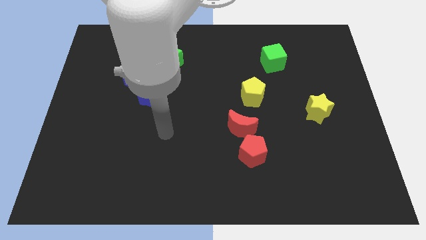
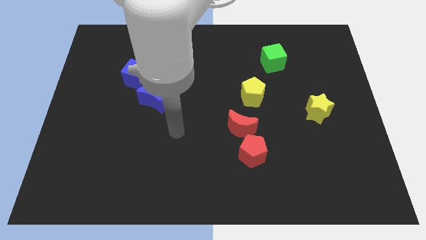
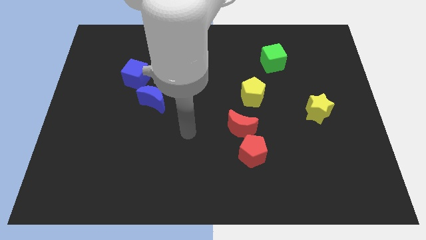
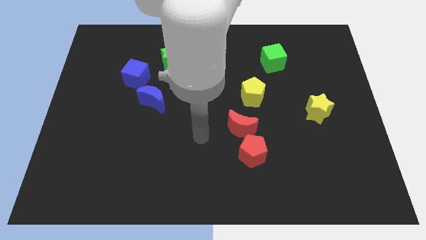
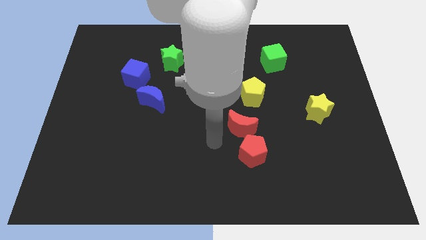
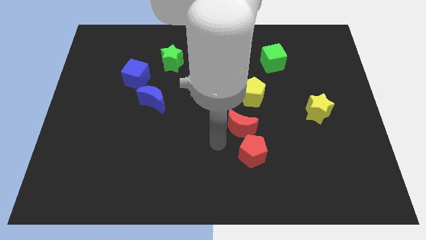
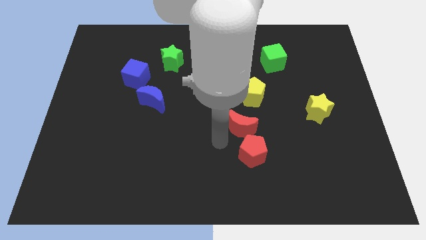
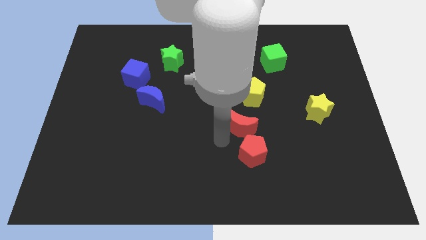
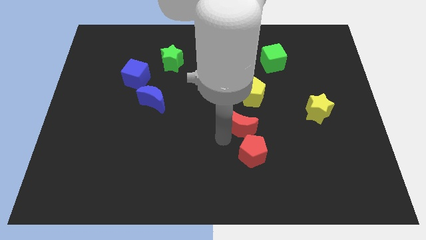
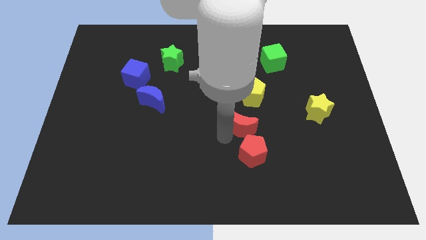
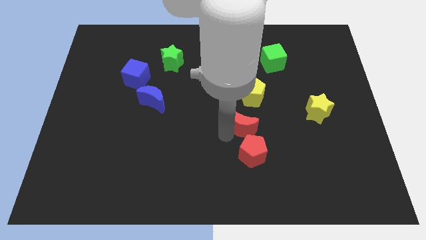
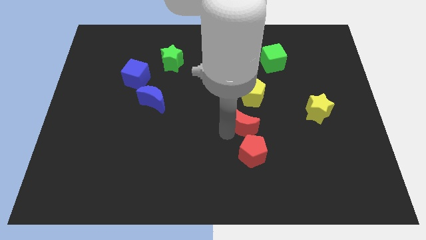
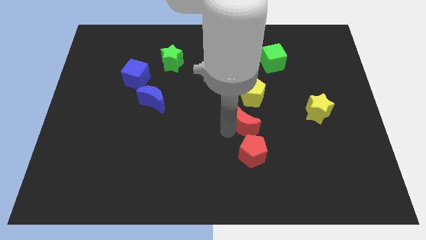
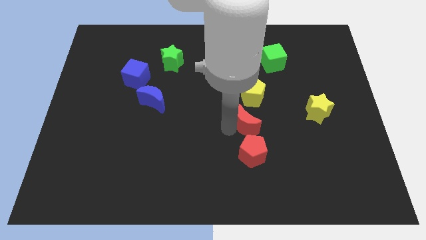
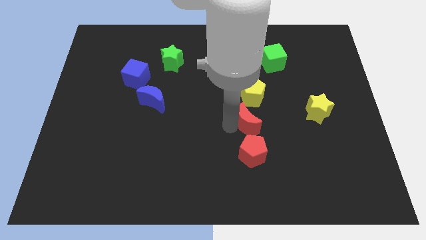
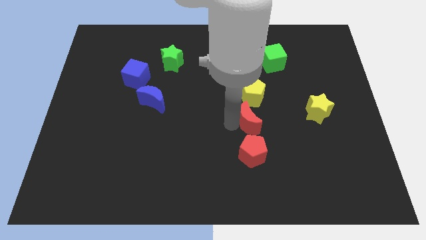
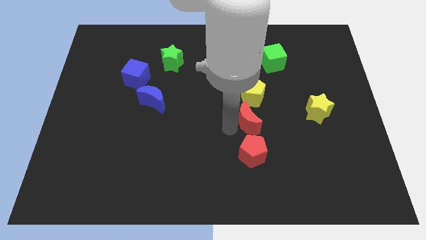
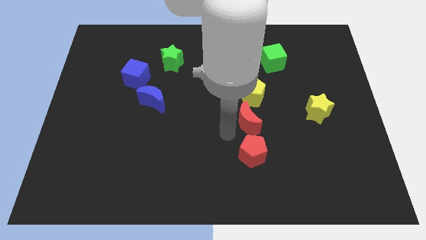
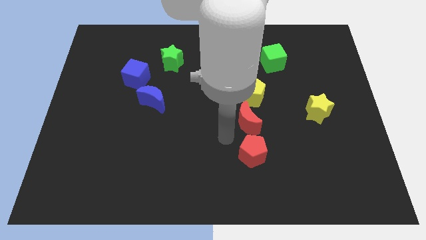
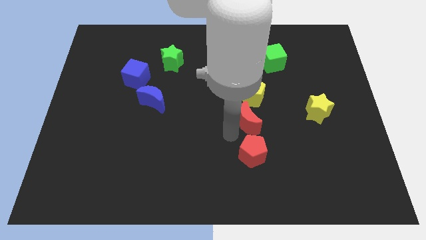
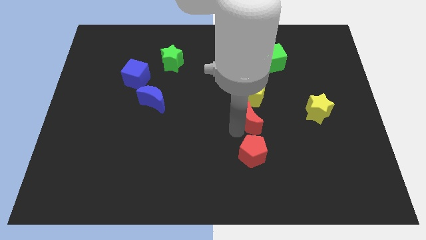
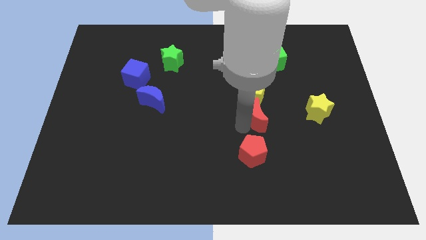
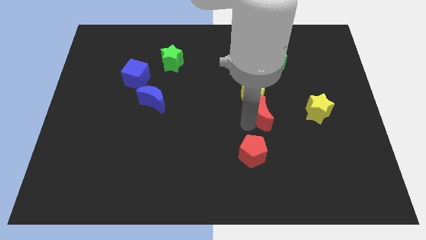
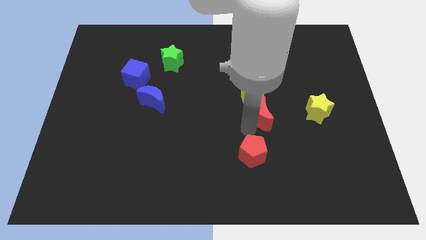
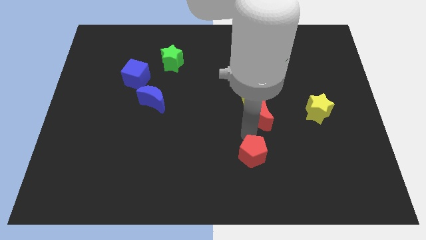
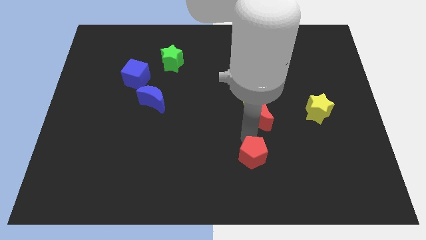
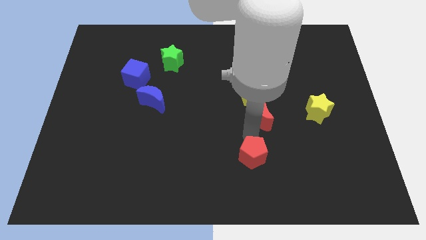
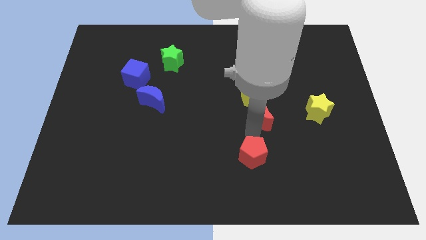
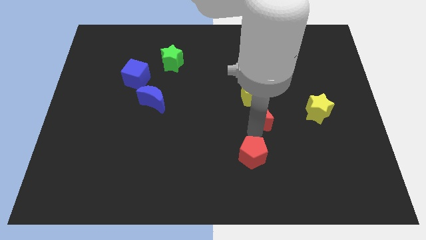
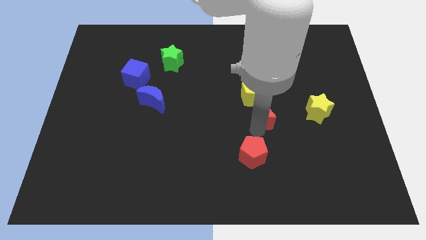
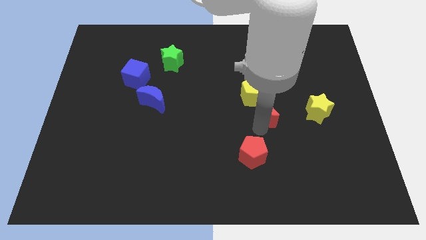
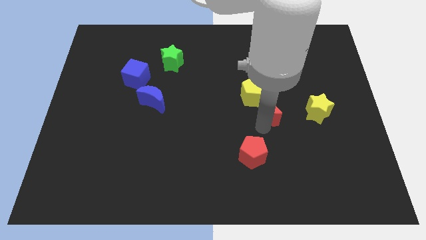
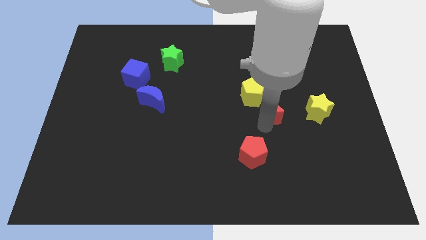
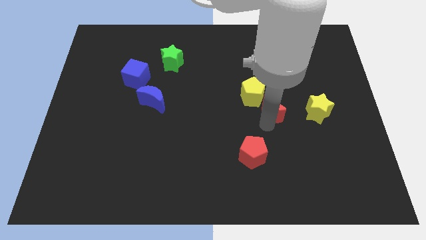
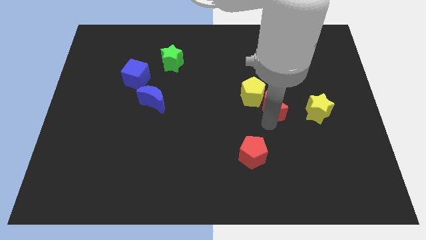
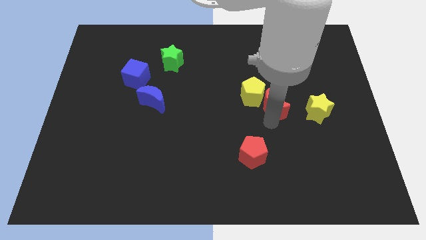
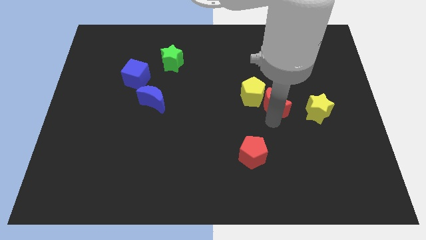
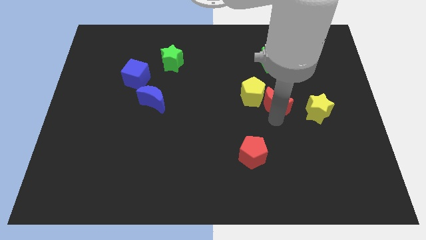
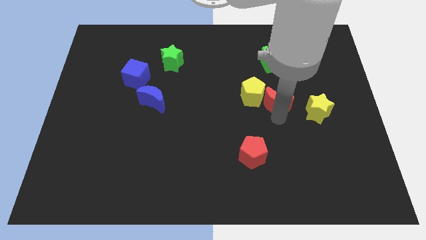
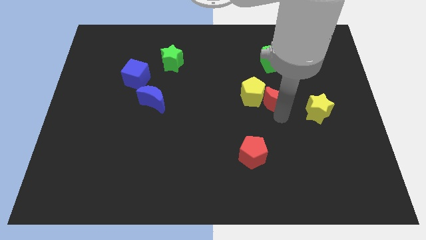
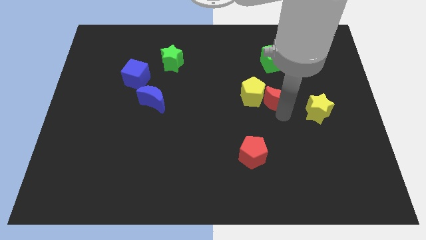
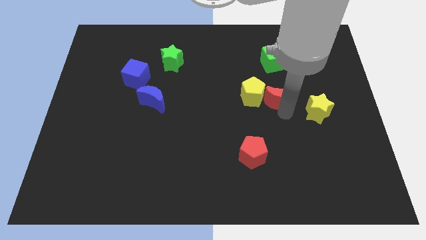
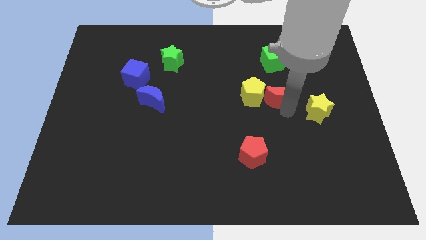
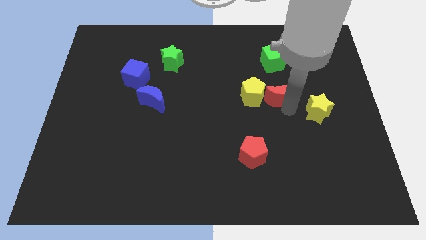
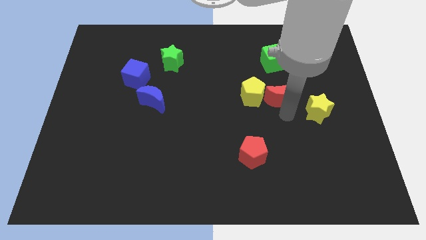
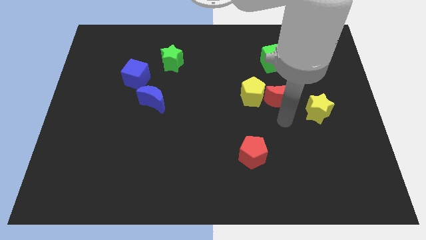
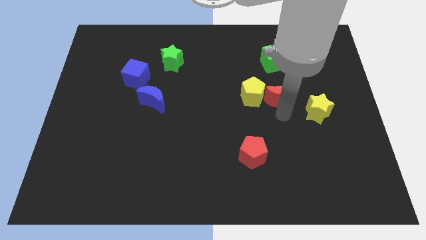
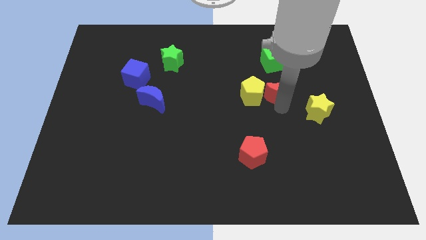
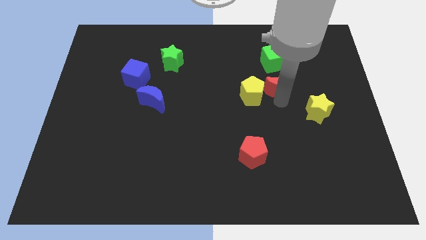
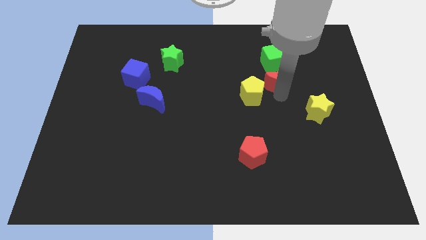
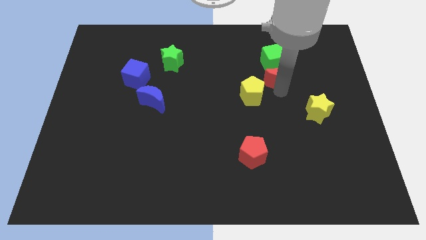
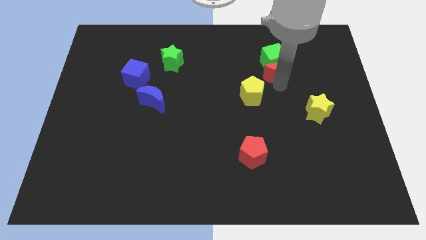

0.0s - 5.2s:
slide the red moon towards the green cube

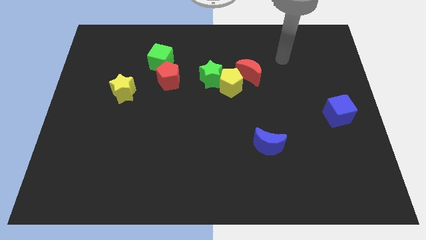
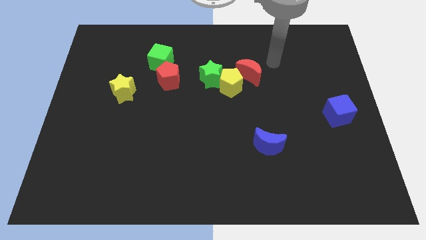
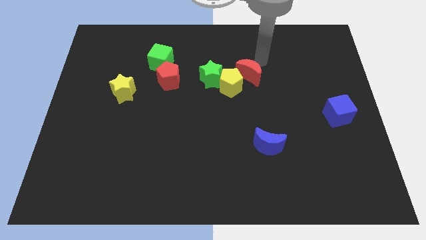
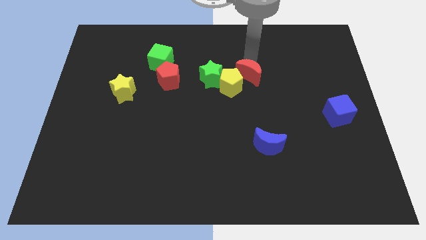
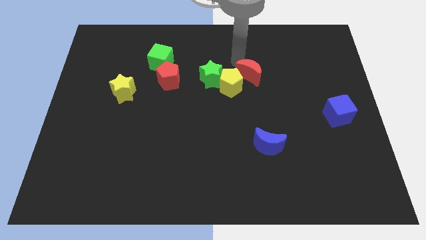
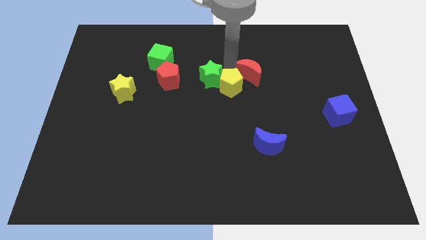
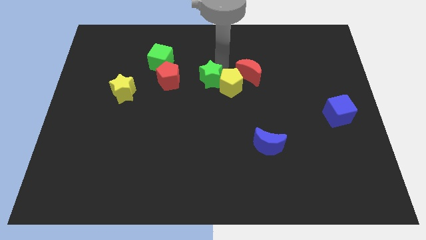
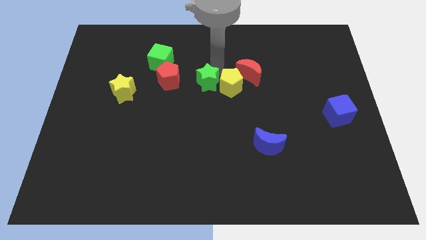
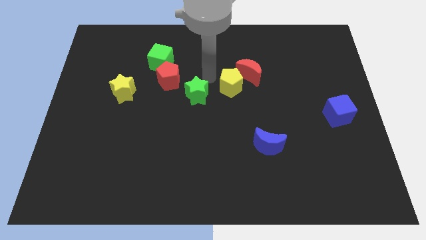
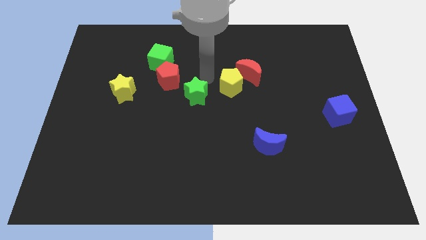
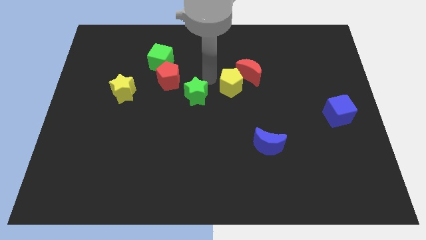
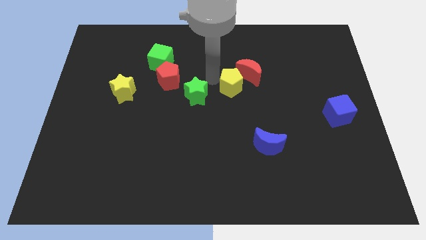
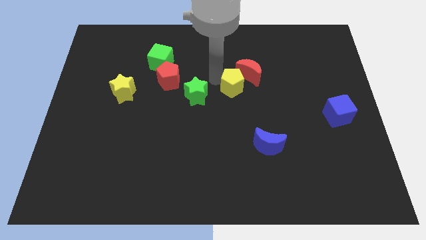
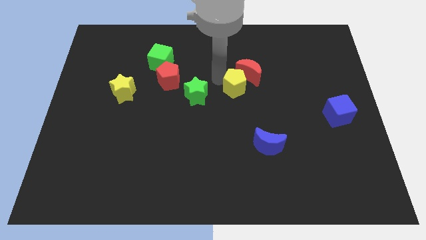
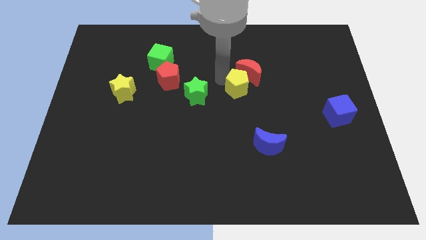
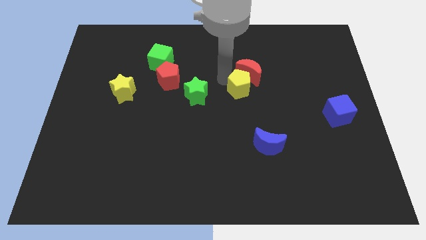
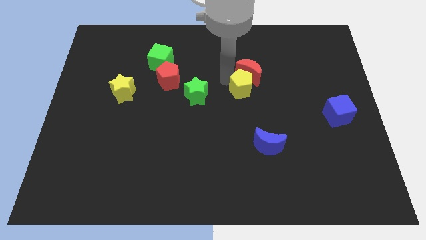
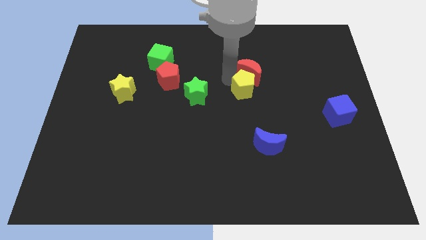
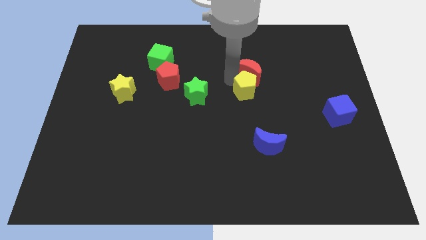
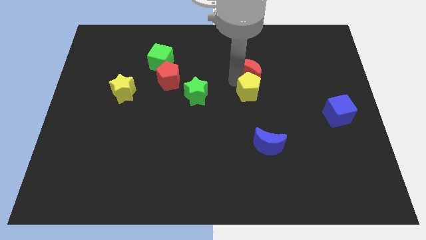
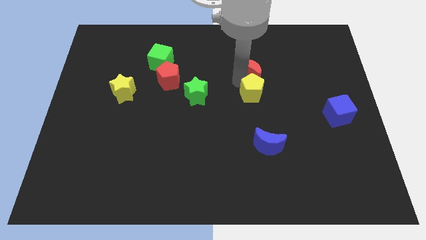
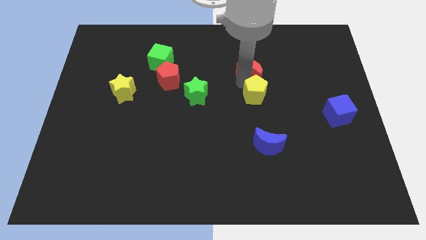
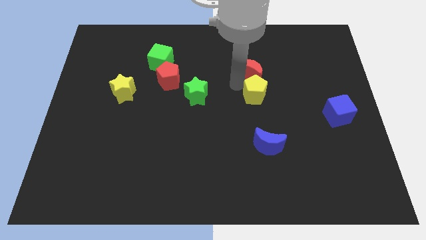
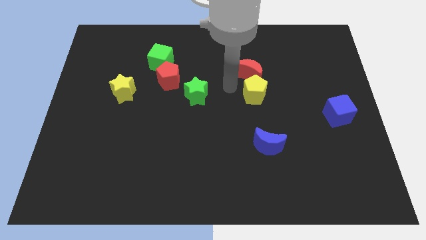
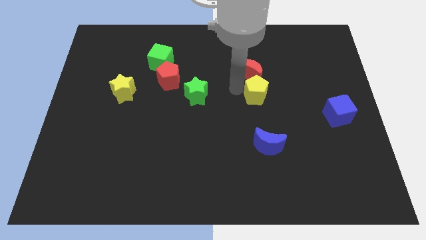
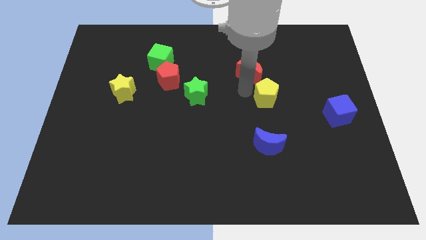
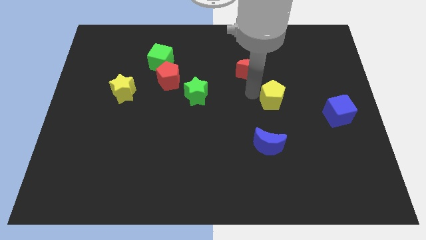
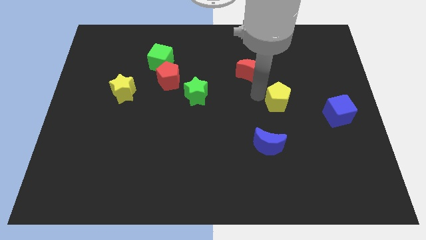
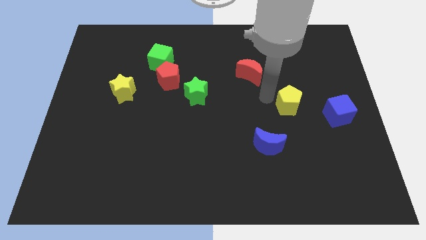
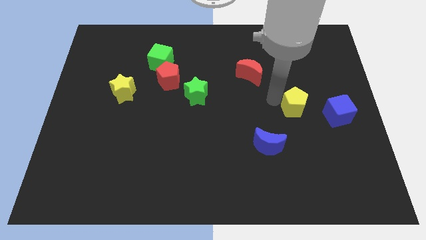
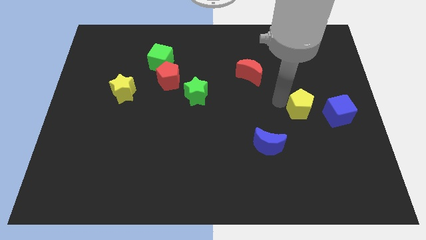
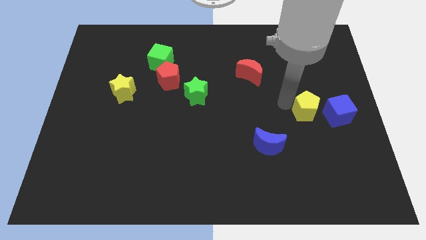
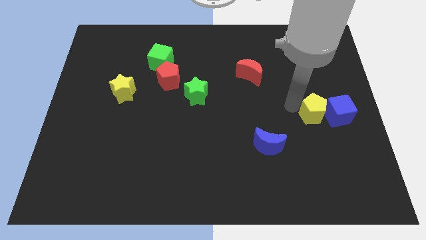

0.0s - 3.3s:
put the yellow pentagon to the blue cube
